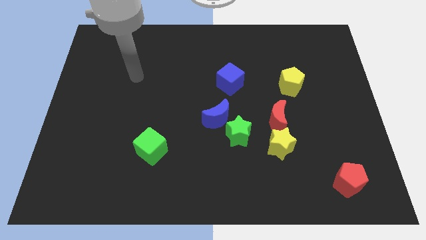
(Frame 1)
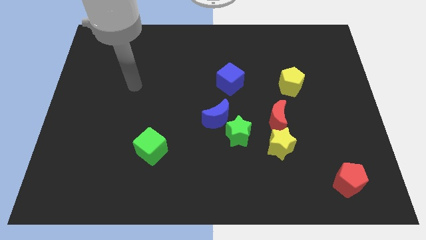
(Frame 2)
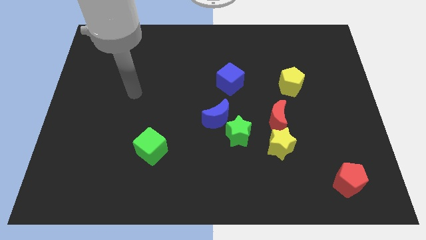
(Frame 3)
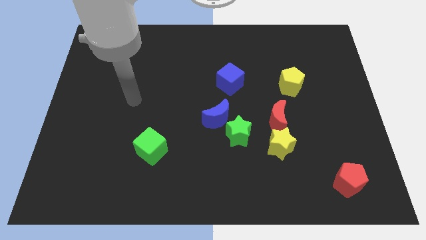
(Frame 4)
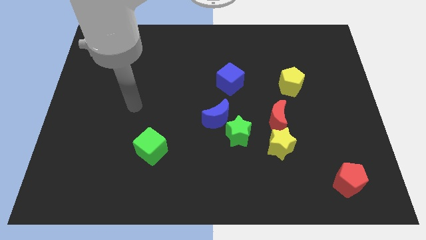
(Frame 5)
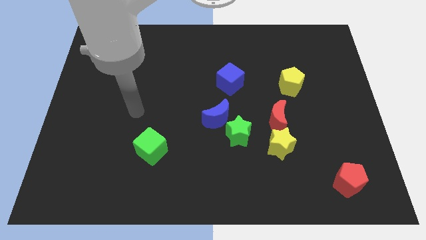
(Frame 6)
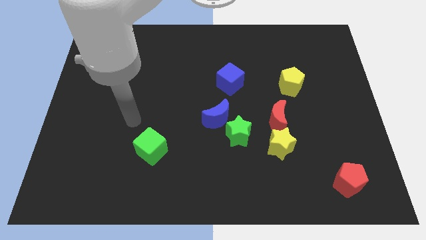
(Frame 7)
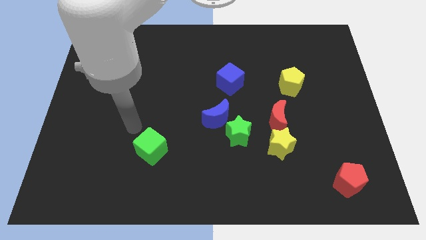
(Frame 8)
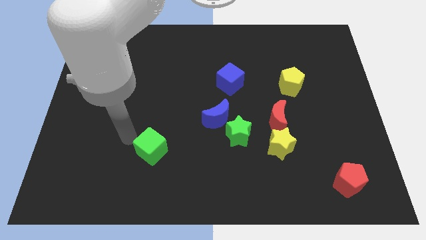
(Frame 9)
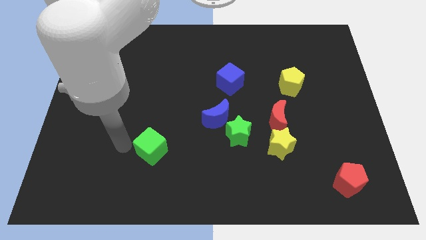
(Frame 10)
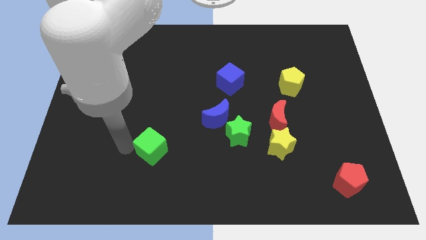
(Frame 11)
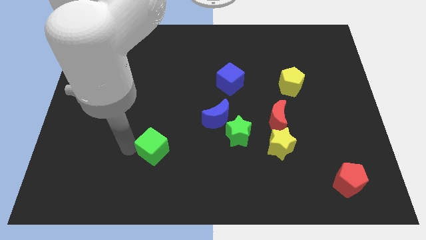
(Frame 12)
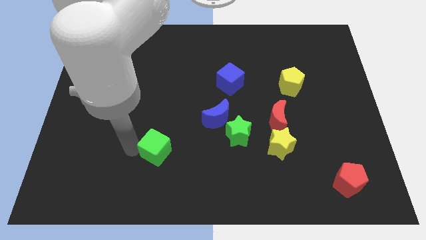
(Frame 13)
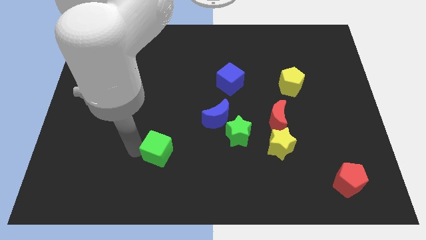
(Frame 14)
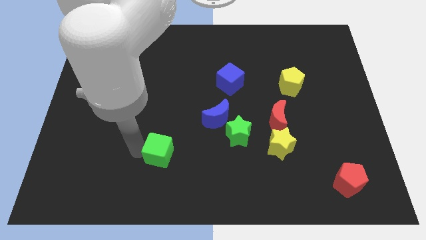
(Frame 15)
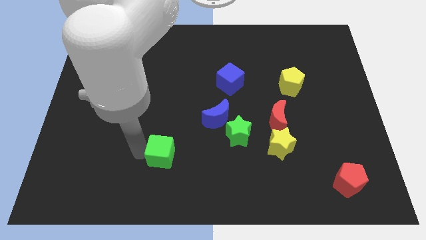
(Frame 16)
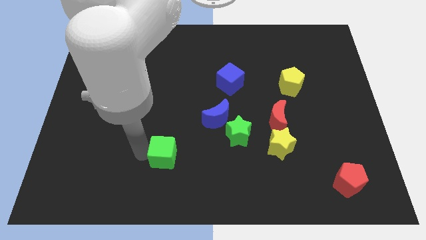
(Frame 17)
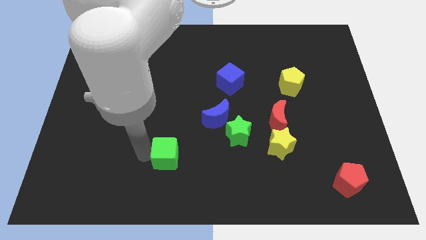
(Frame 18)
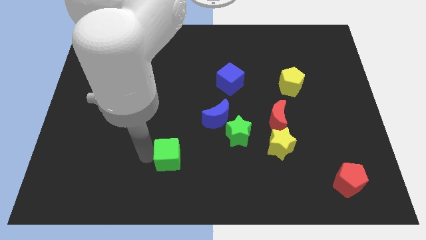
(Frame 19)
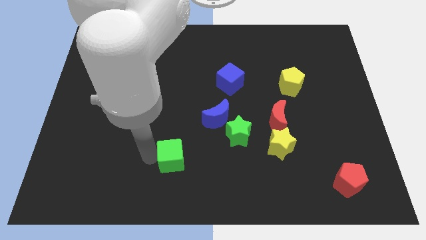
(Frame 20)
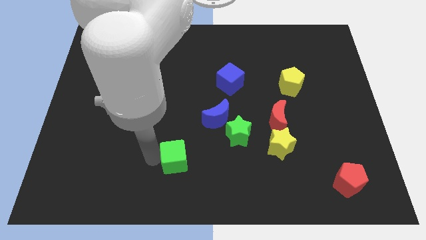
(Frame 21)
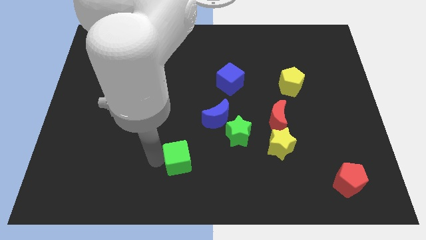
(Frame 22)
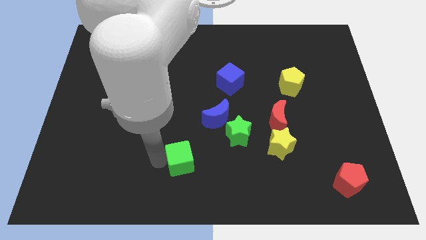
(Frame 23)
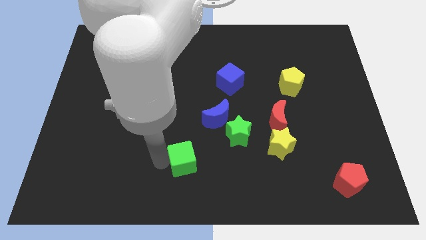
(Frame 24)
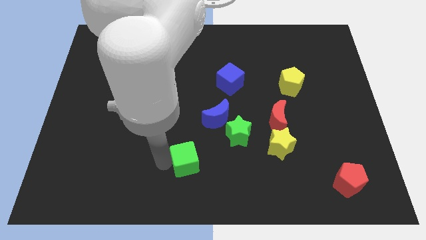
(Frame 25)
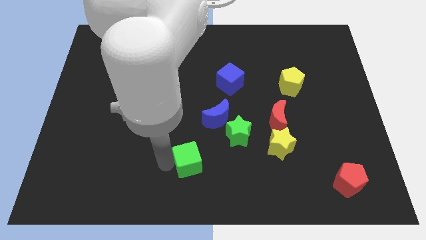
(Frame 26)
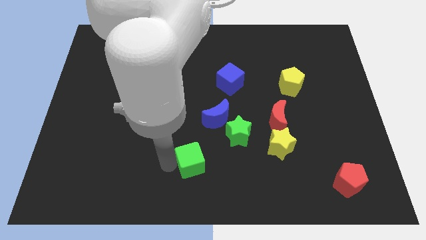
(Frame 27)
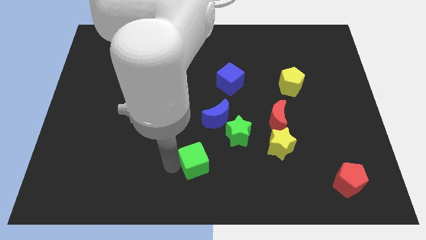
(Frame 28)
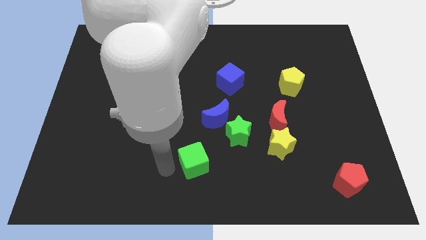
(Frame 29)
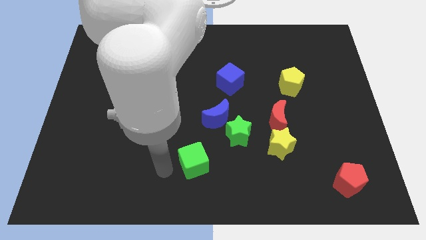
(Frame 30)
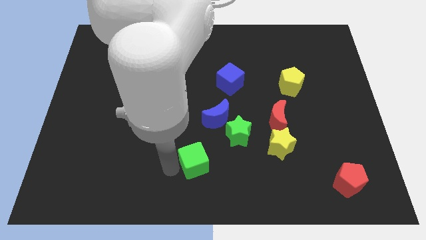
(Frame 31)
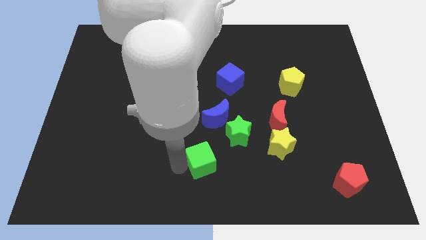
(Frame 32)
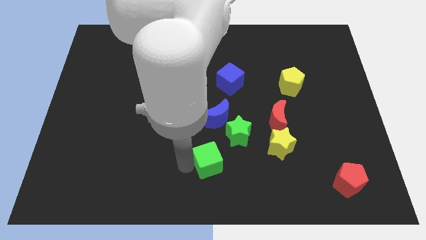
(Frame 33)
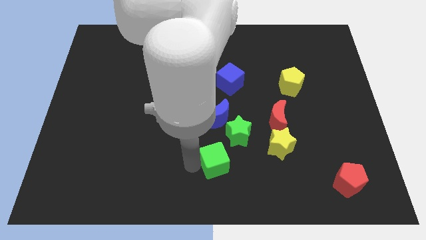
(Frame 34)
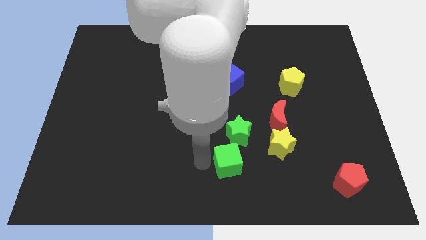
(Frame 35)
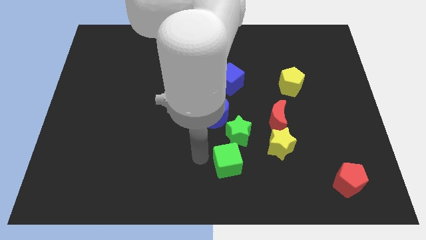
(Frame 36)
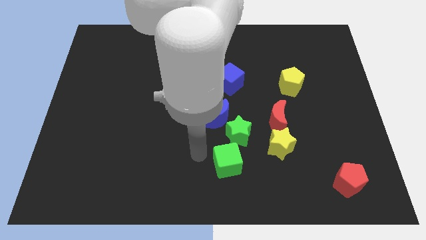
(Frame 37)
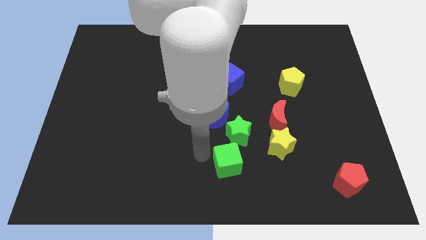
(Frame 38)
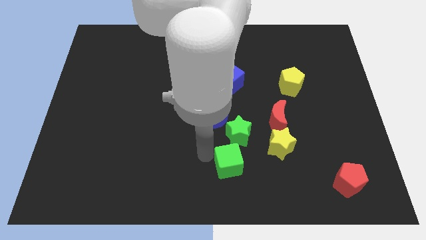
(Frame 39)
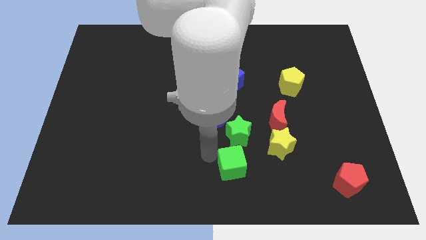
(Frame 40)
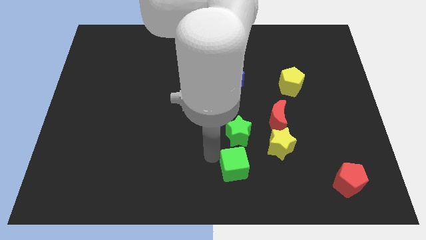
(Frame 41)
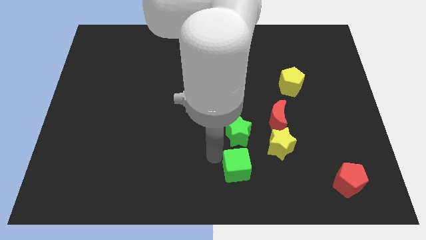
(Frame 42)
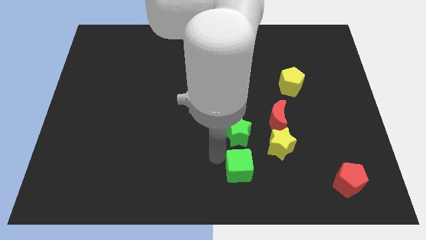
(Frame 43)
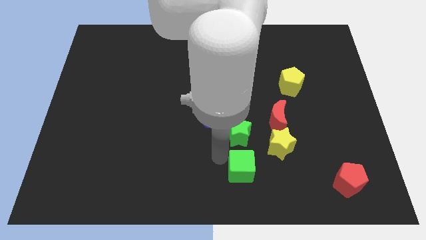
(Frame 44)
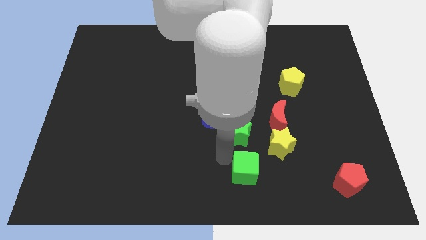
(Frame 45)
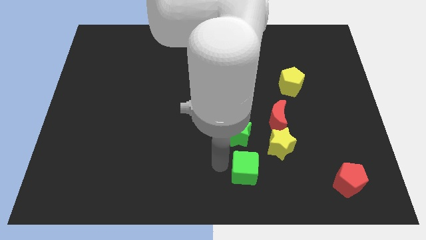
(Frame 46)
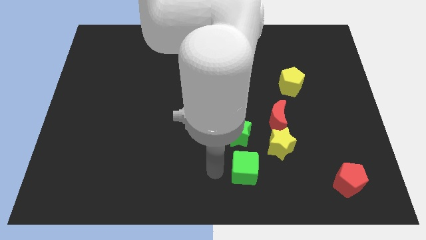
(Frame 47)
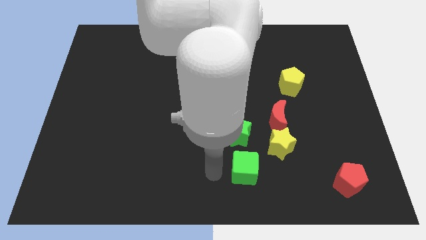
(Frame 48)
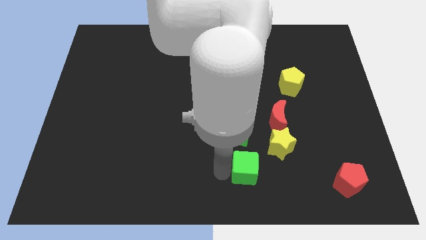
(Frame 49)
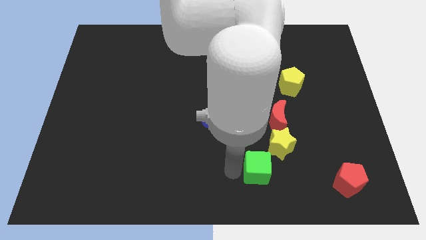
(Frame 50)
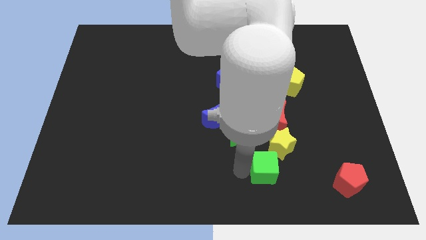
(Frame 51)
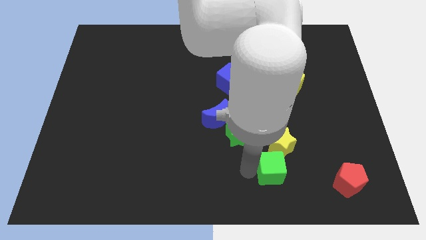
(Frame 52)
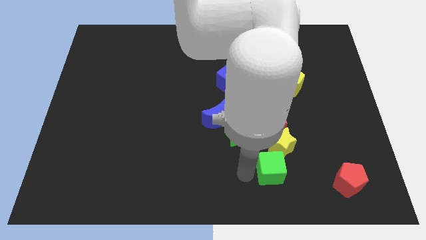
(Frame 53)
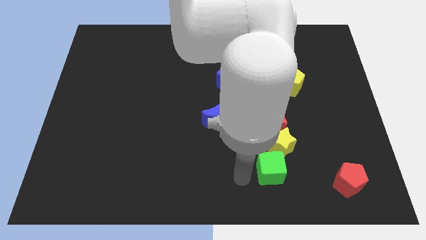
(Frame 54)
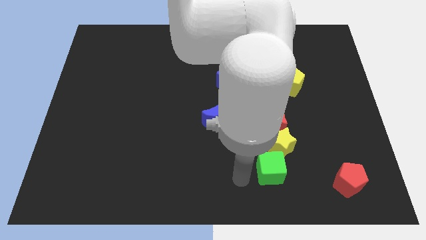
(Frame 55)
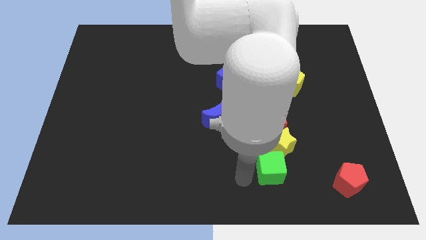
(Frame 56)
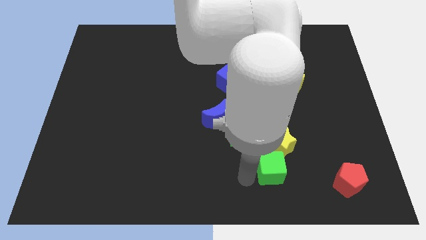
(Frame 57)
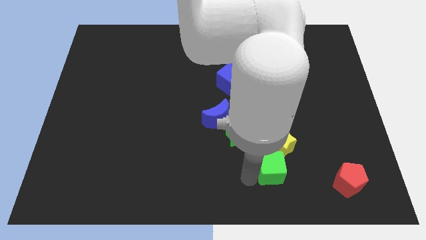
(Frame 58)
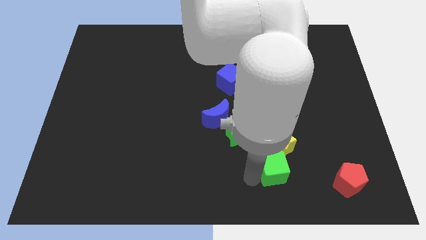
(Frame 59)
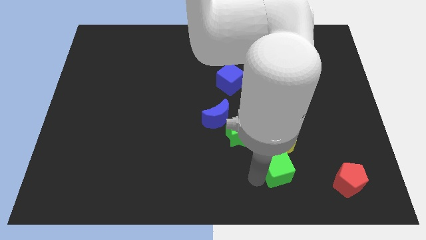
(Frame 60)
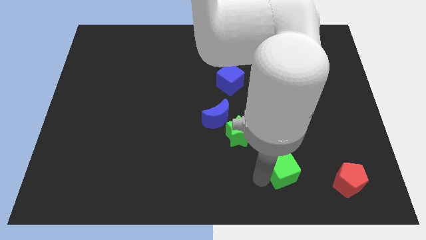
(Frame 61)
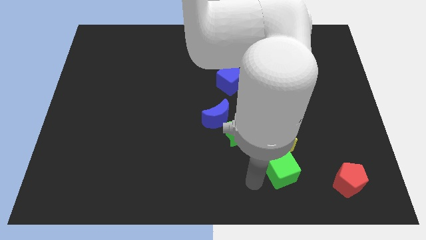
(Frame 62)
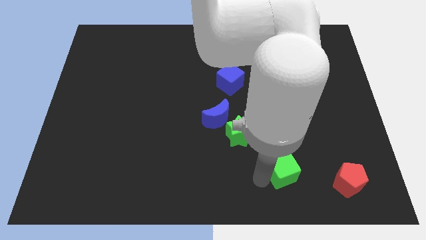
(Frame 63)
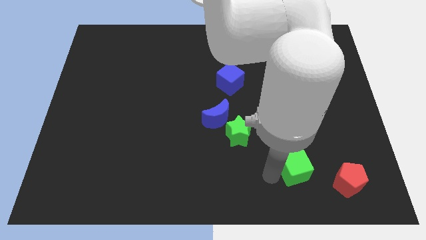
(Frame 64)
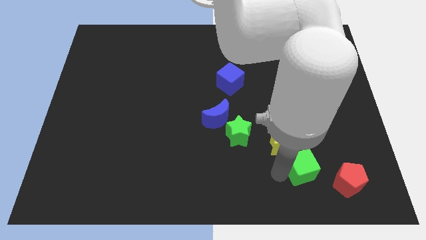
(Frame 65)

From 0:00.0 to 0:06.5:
move the green cube diagonally up and to the left of the red pentagon

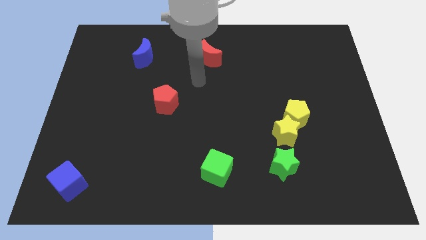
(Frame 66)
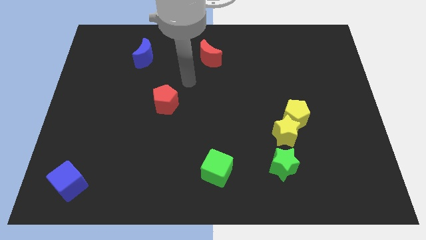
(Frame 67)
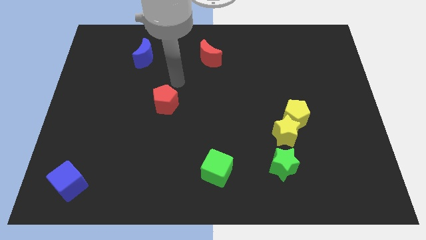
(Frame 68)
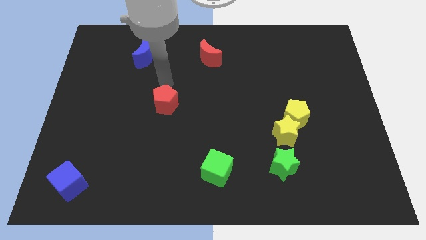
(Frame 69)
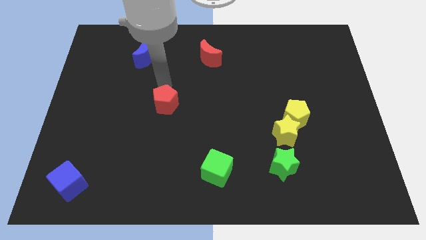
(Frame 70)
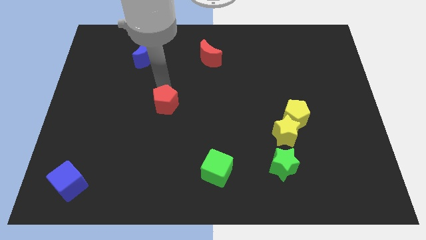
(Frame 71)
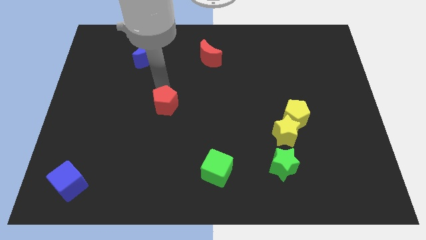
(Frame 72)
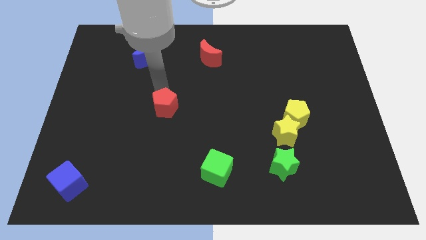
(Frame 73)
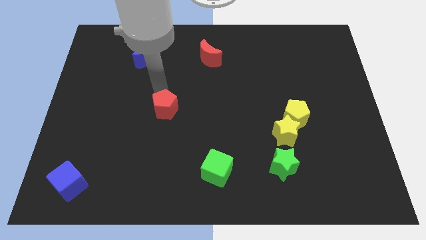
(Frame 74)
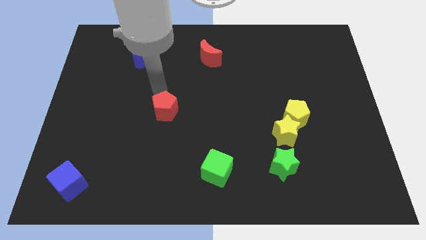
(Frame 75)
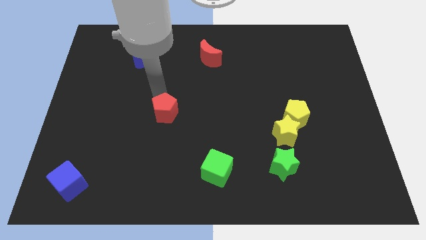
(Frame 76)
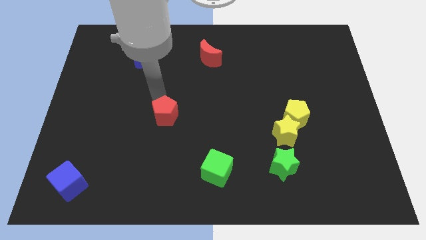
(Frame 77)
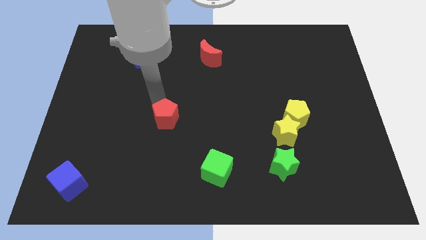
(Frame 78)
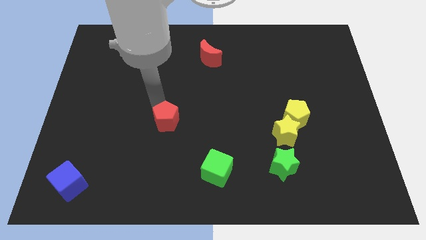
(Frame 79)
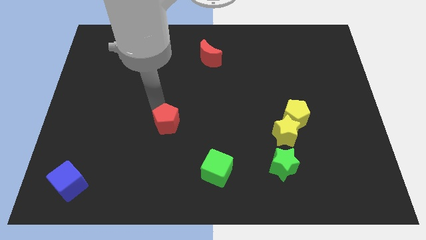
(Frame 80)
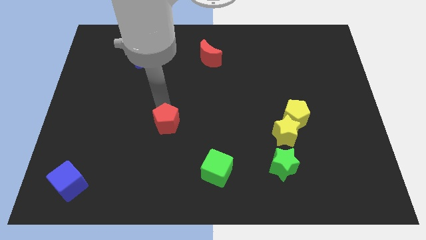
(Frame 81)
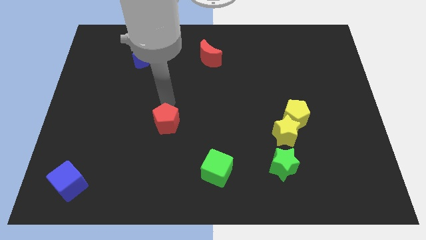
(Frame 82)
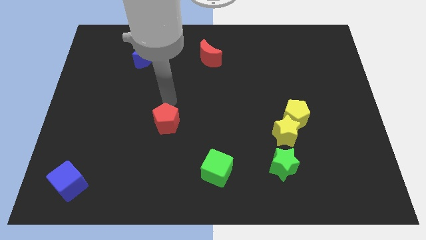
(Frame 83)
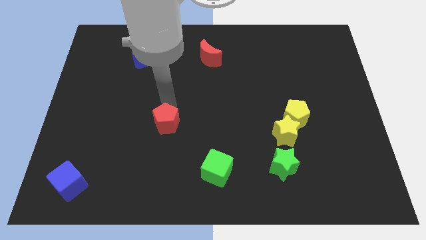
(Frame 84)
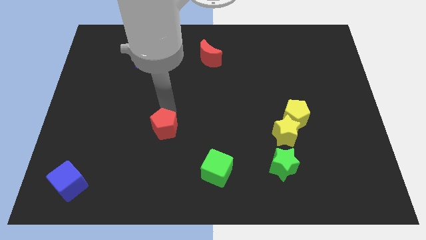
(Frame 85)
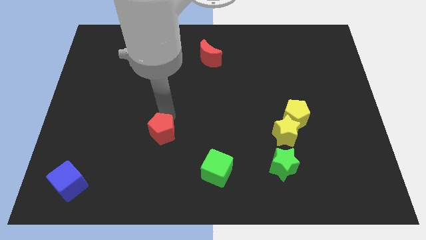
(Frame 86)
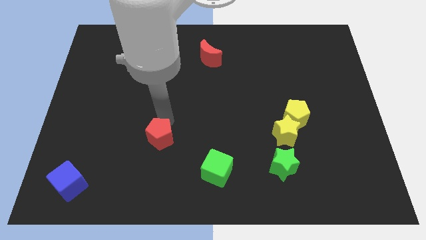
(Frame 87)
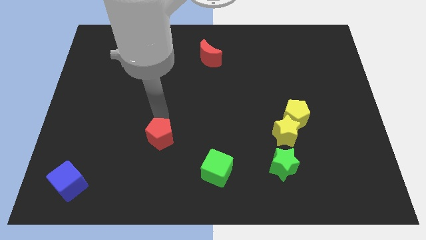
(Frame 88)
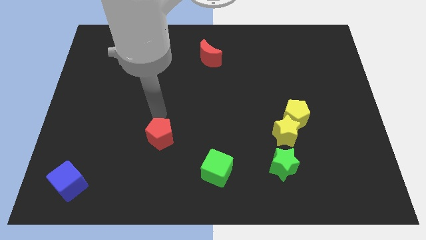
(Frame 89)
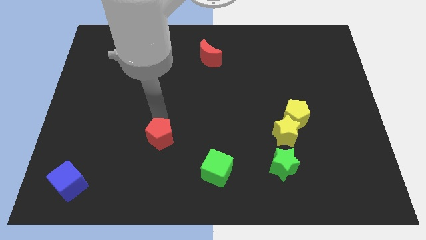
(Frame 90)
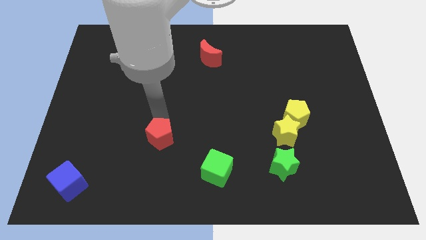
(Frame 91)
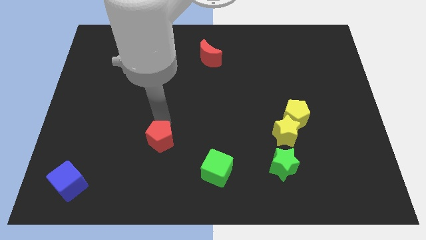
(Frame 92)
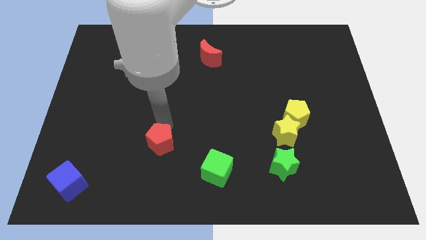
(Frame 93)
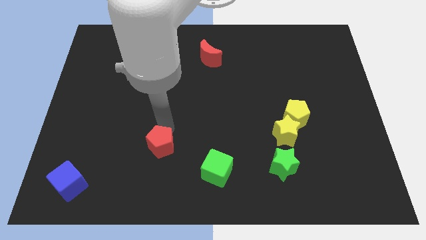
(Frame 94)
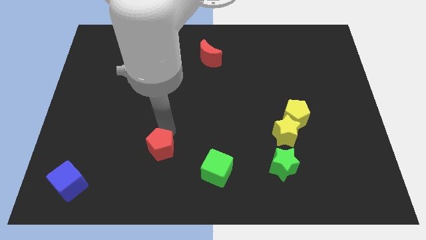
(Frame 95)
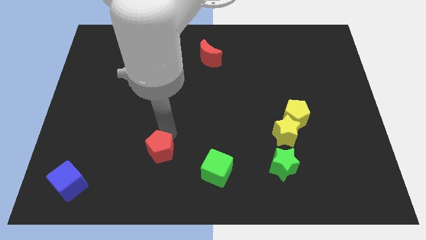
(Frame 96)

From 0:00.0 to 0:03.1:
push the red pentagon left of the green cube
